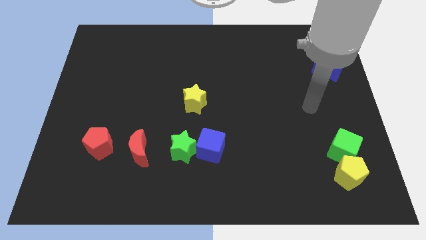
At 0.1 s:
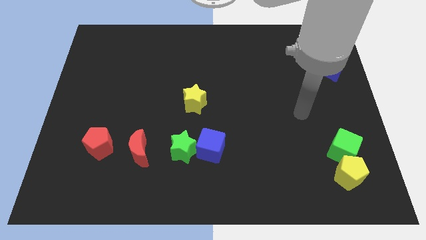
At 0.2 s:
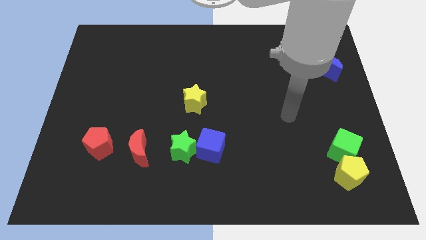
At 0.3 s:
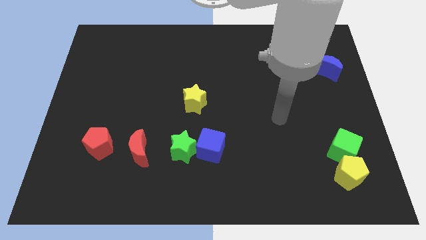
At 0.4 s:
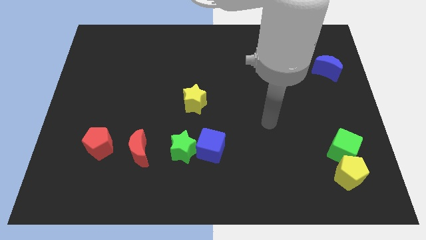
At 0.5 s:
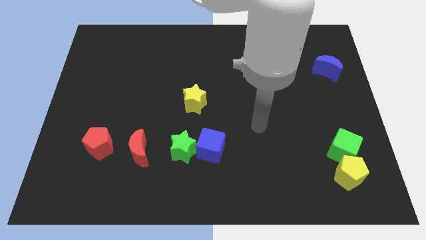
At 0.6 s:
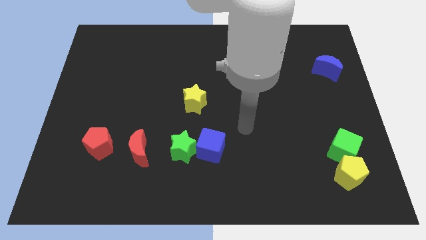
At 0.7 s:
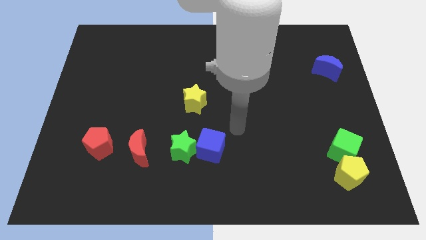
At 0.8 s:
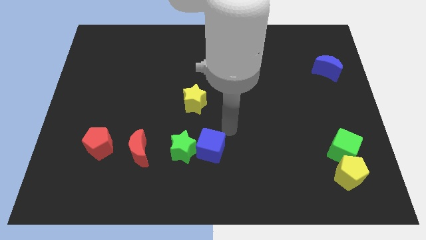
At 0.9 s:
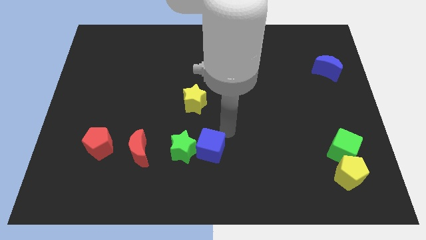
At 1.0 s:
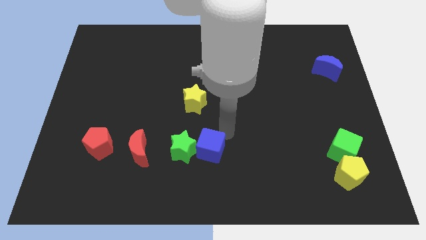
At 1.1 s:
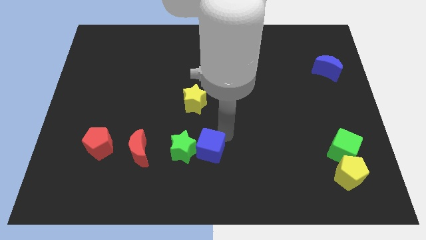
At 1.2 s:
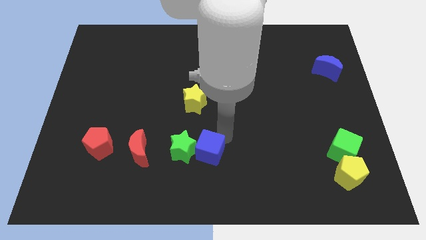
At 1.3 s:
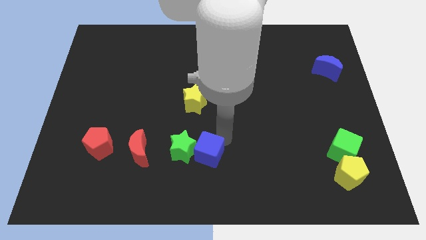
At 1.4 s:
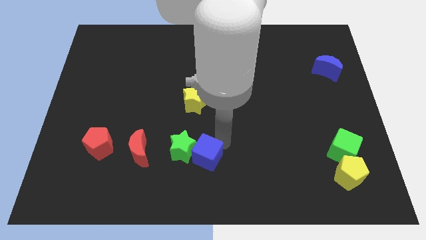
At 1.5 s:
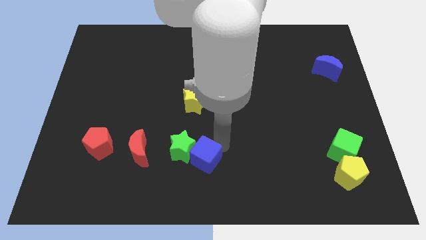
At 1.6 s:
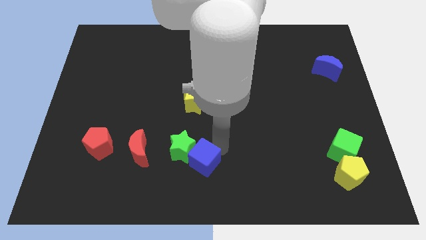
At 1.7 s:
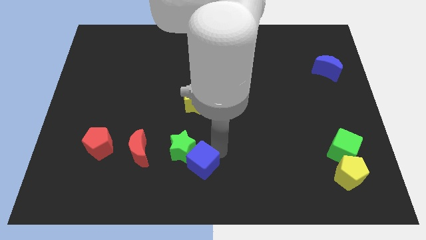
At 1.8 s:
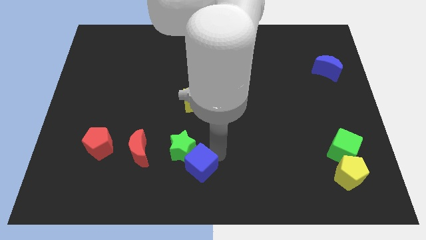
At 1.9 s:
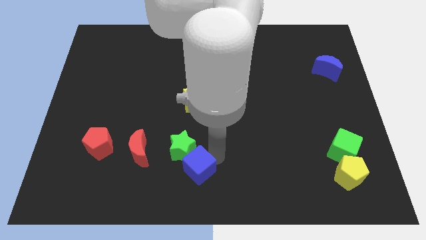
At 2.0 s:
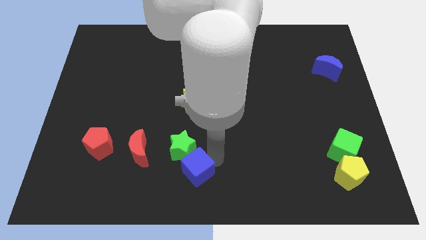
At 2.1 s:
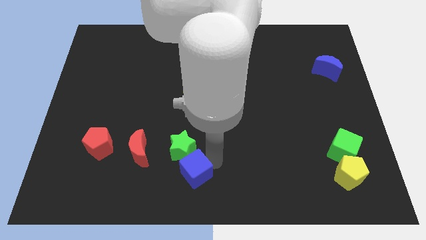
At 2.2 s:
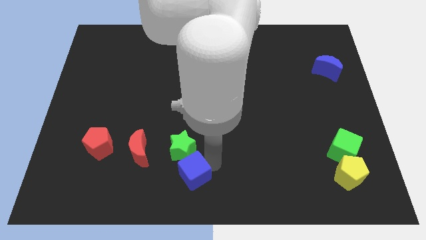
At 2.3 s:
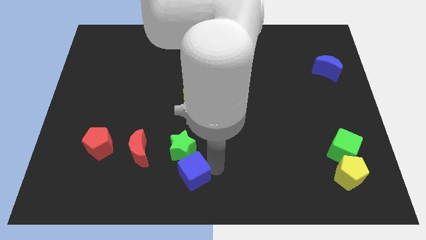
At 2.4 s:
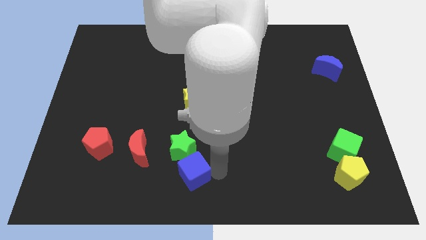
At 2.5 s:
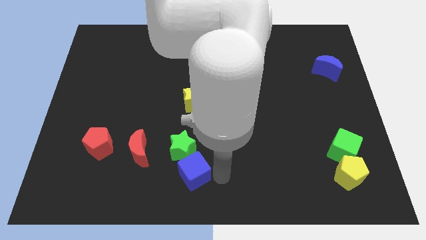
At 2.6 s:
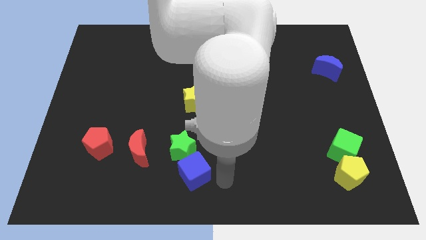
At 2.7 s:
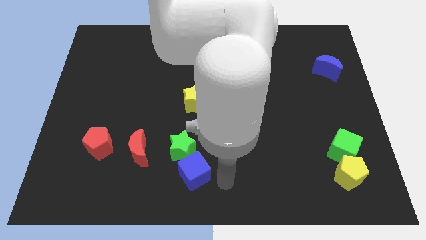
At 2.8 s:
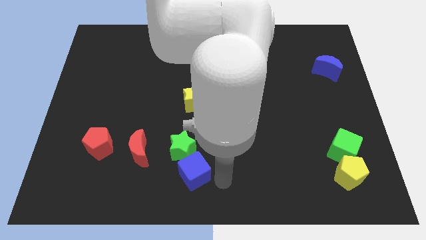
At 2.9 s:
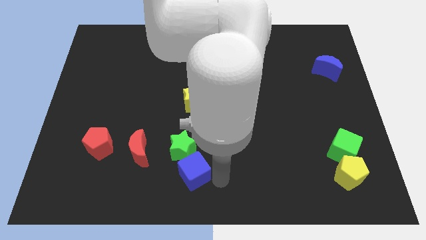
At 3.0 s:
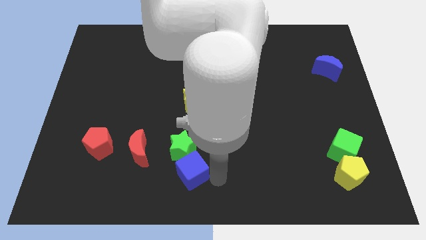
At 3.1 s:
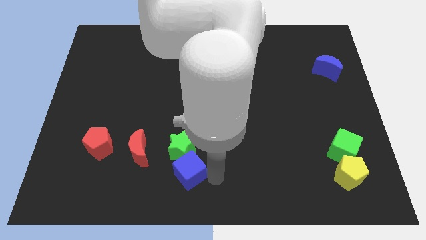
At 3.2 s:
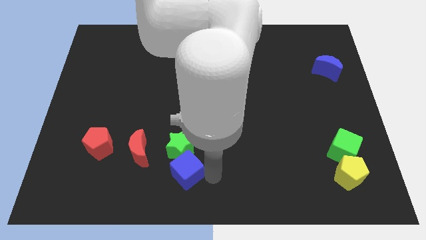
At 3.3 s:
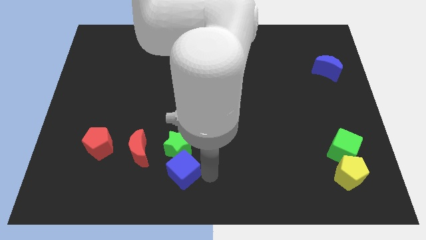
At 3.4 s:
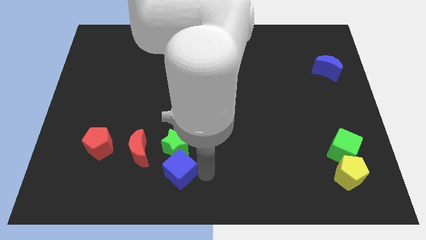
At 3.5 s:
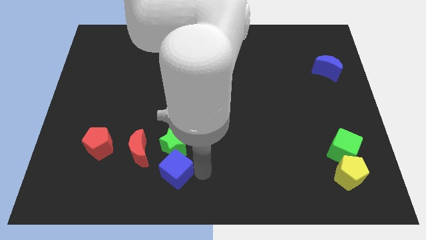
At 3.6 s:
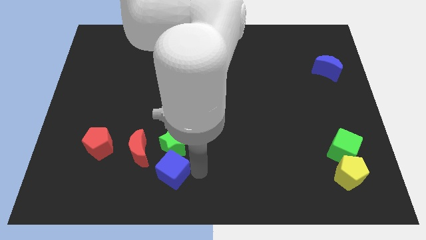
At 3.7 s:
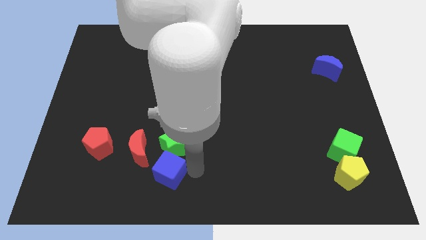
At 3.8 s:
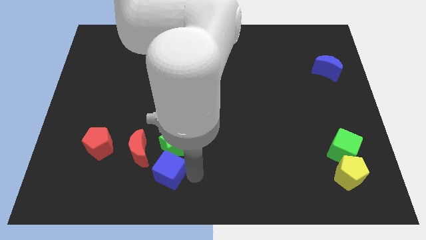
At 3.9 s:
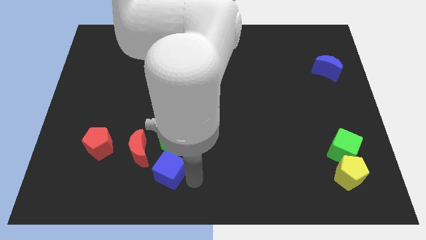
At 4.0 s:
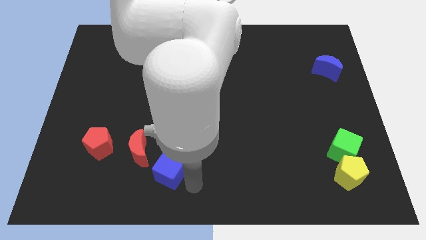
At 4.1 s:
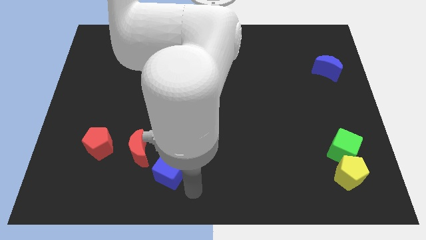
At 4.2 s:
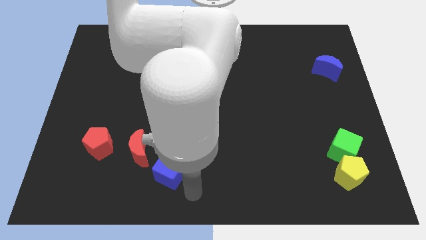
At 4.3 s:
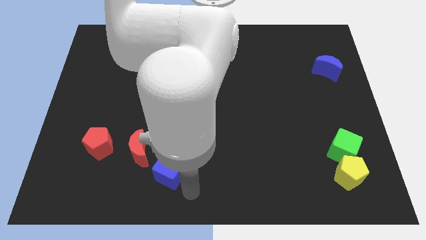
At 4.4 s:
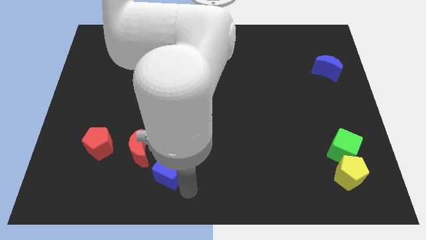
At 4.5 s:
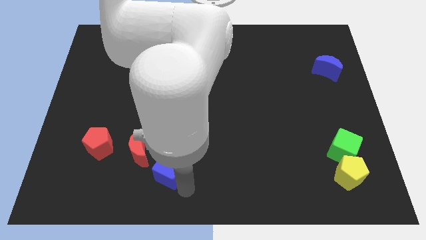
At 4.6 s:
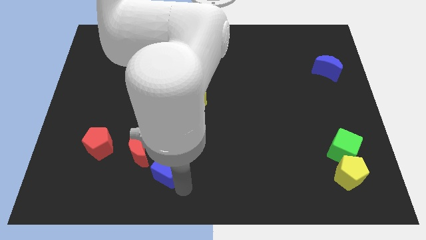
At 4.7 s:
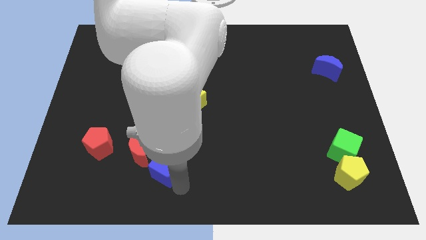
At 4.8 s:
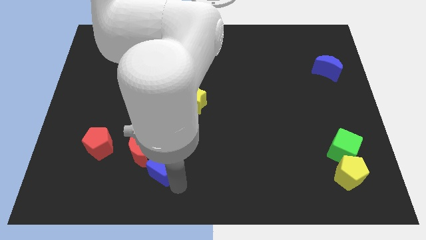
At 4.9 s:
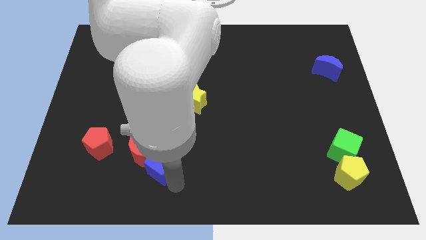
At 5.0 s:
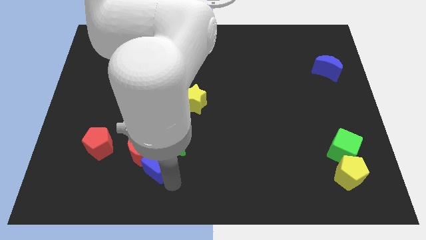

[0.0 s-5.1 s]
put the blue cube to the red moon

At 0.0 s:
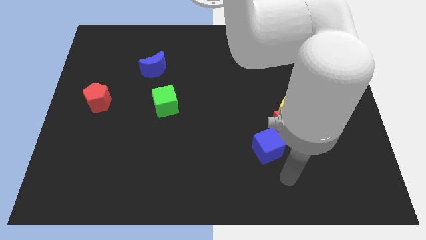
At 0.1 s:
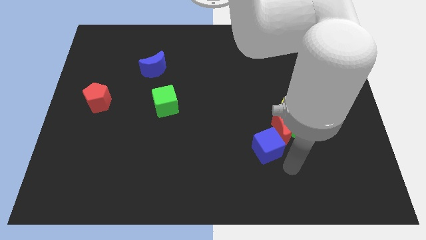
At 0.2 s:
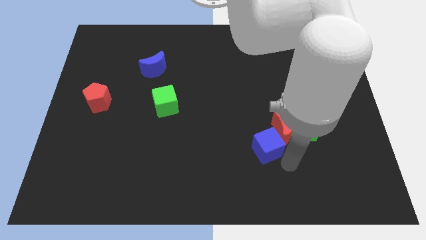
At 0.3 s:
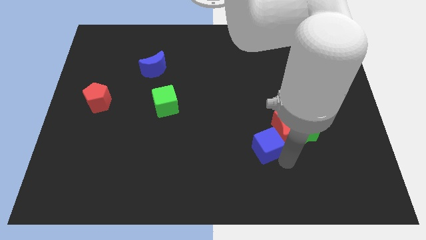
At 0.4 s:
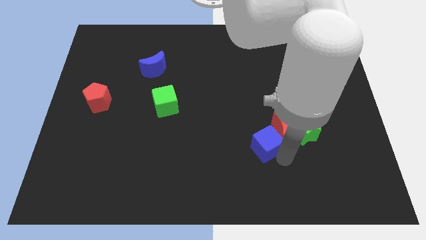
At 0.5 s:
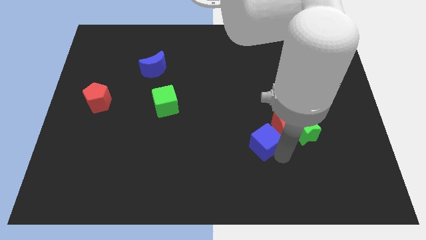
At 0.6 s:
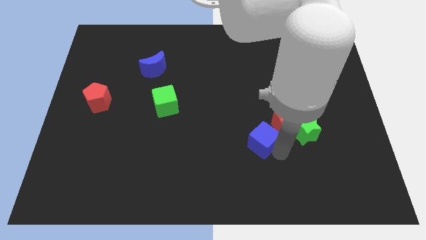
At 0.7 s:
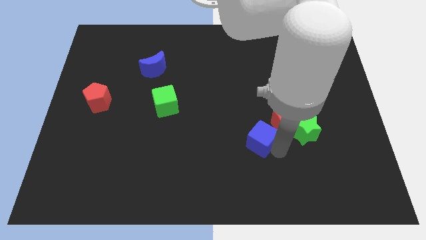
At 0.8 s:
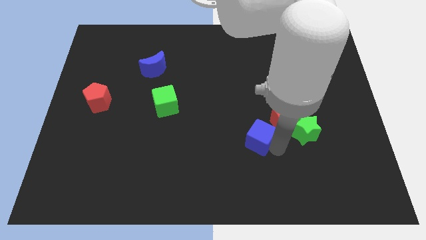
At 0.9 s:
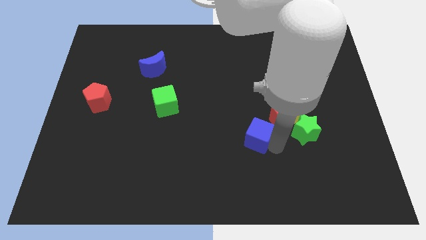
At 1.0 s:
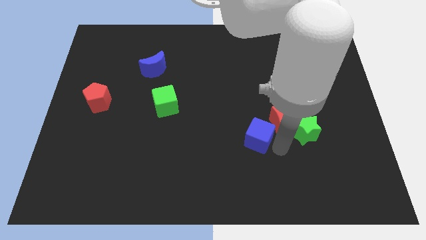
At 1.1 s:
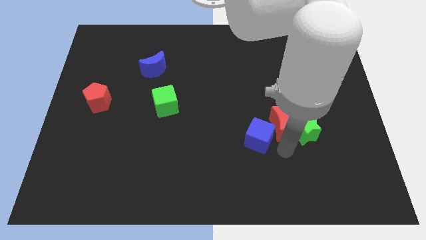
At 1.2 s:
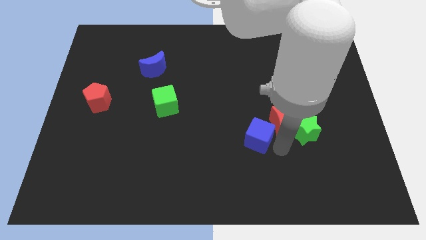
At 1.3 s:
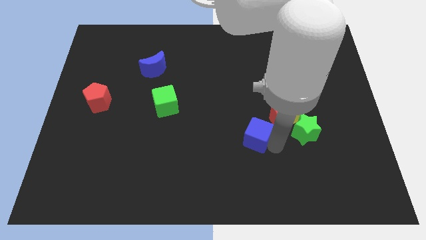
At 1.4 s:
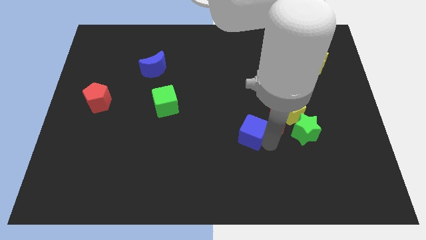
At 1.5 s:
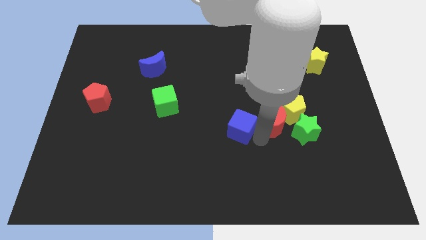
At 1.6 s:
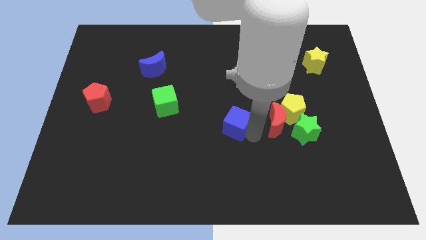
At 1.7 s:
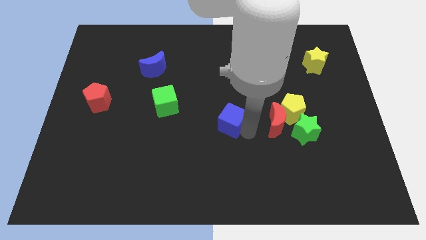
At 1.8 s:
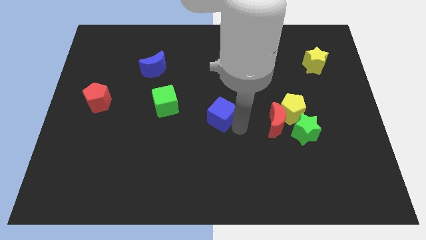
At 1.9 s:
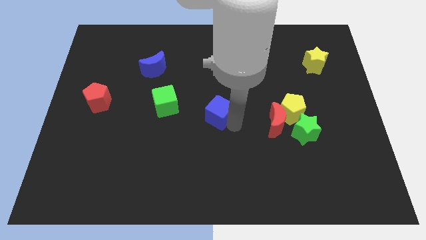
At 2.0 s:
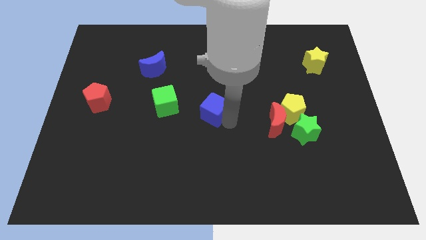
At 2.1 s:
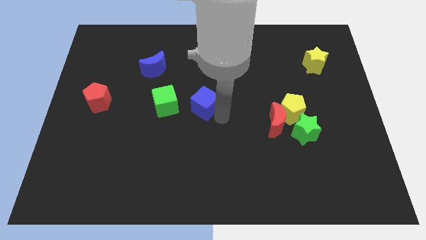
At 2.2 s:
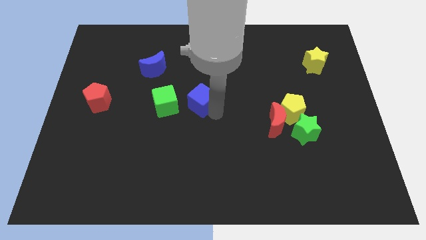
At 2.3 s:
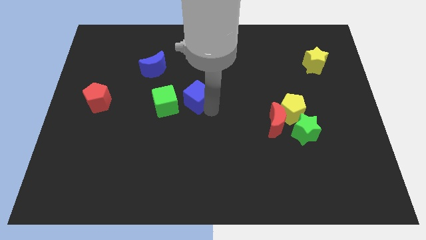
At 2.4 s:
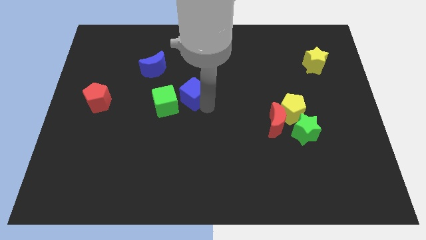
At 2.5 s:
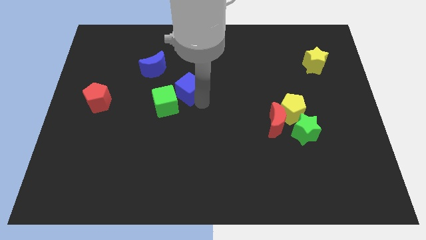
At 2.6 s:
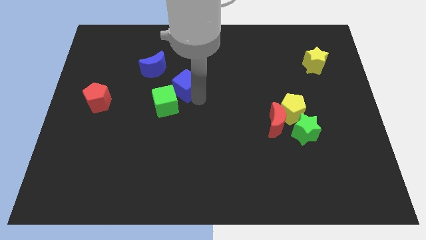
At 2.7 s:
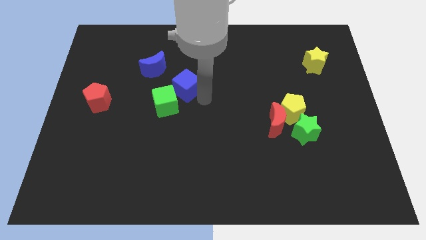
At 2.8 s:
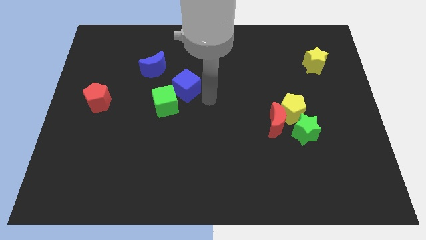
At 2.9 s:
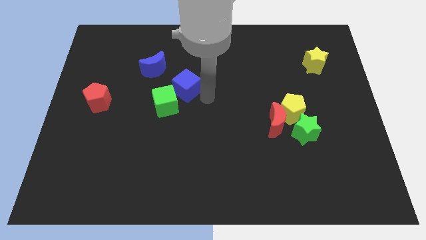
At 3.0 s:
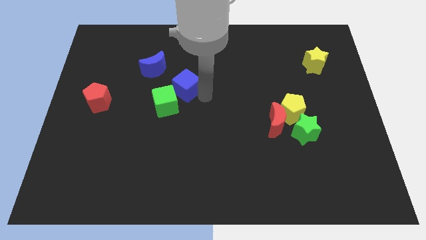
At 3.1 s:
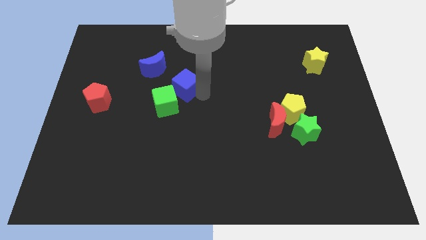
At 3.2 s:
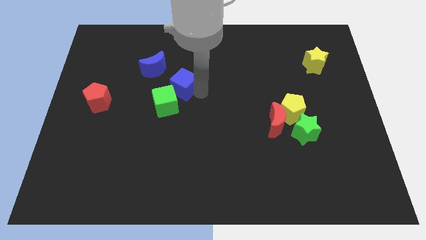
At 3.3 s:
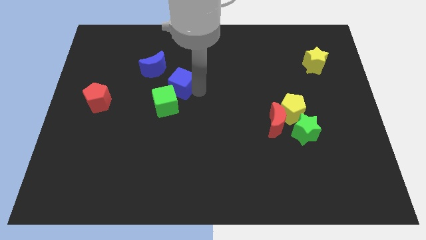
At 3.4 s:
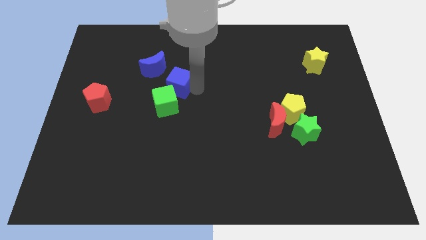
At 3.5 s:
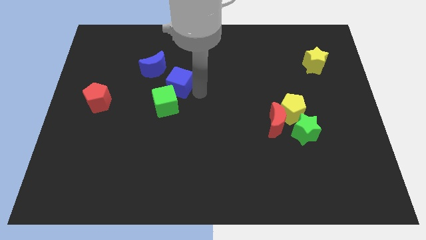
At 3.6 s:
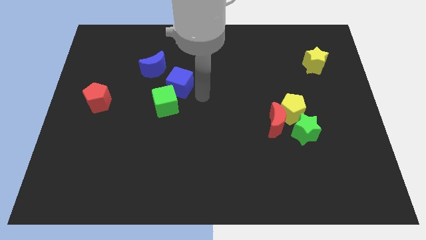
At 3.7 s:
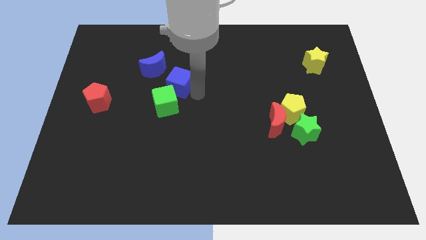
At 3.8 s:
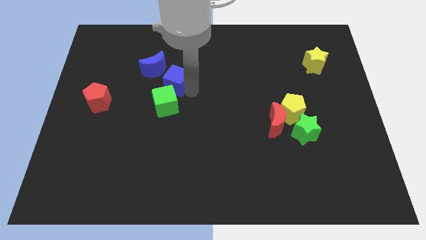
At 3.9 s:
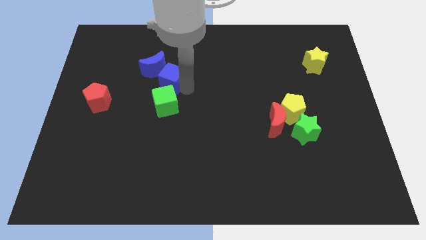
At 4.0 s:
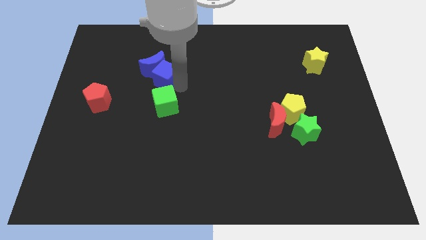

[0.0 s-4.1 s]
slide the blue cube next to the blue moon
